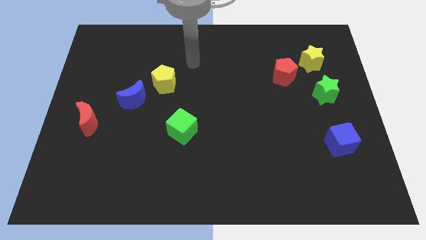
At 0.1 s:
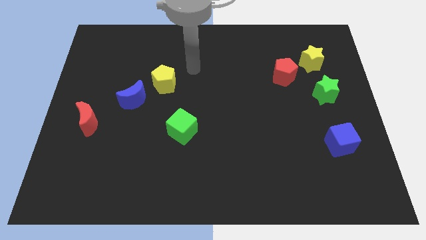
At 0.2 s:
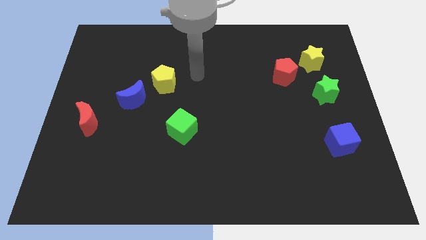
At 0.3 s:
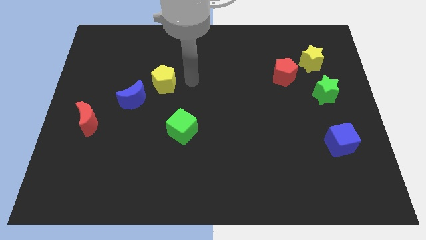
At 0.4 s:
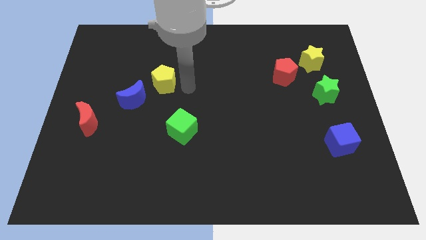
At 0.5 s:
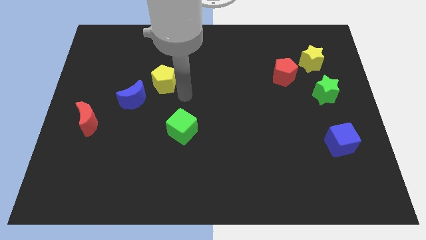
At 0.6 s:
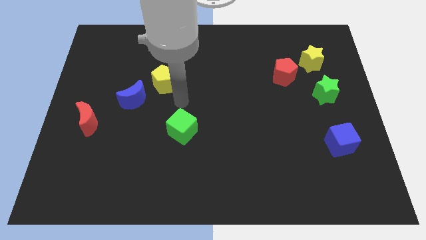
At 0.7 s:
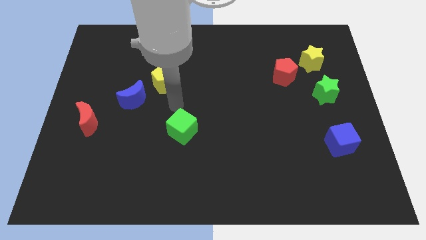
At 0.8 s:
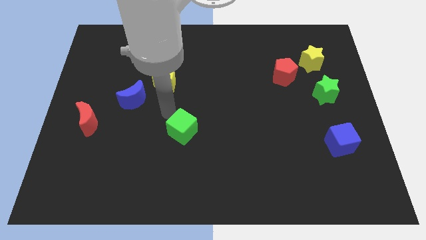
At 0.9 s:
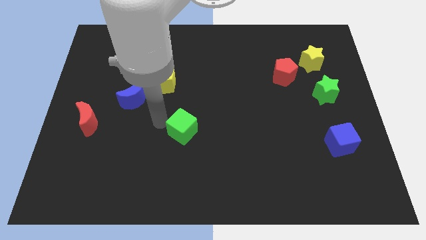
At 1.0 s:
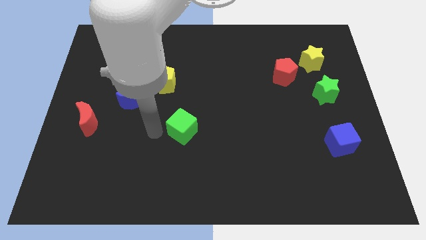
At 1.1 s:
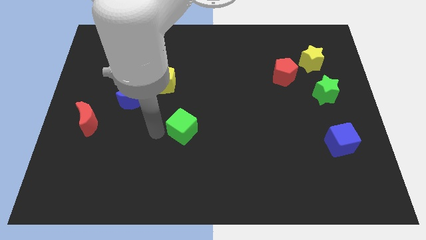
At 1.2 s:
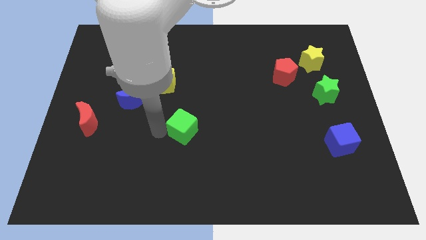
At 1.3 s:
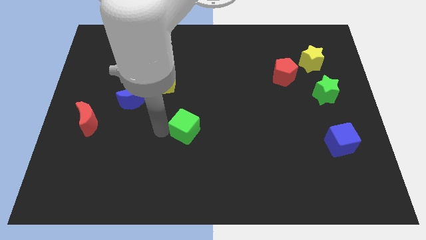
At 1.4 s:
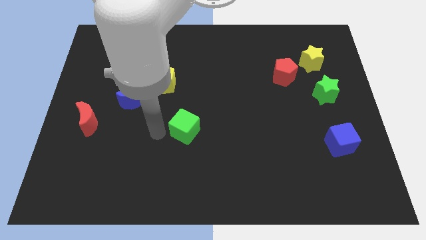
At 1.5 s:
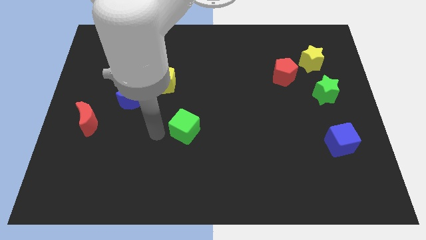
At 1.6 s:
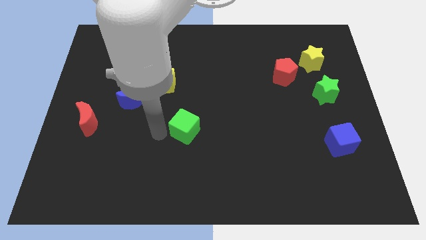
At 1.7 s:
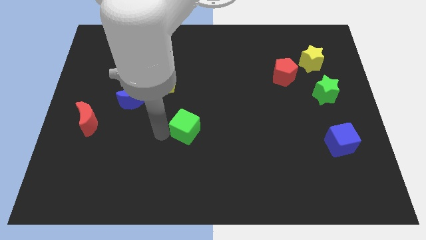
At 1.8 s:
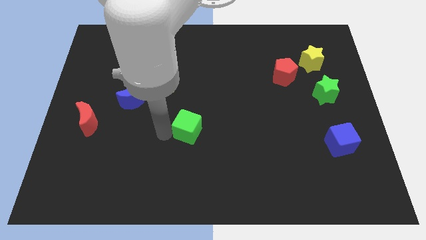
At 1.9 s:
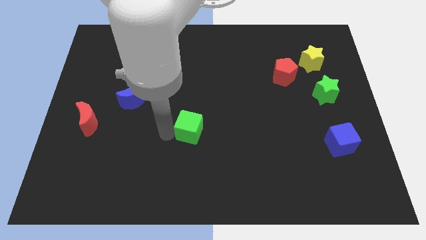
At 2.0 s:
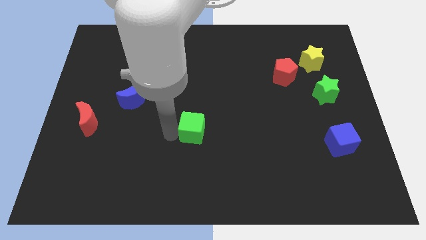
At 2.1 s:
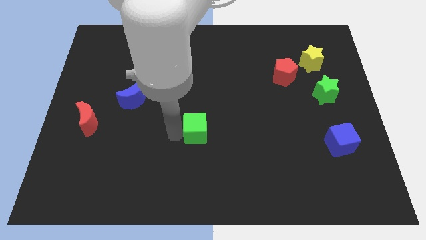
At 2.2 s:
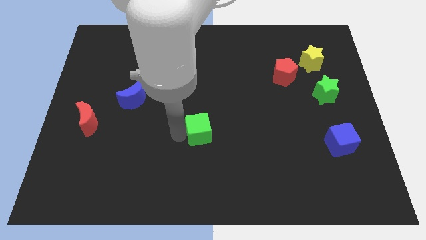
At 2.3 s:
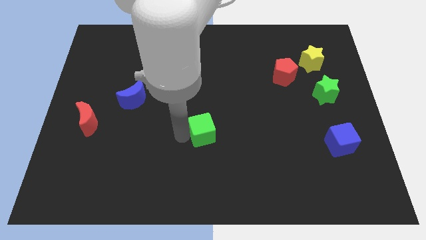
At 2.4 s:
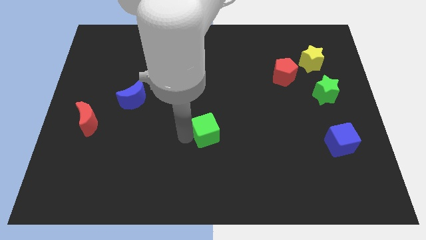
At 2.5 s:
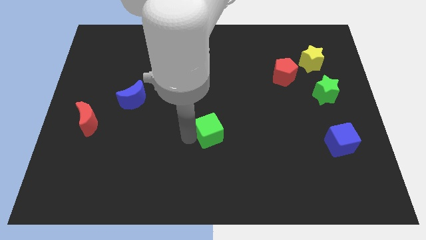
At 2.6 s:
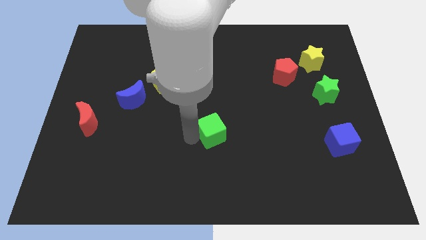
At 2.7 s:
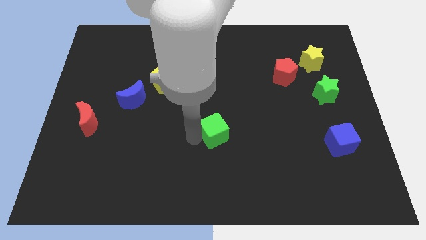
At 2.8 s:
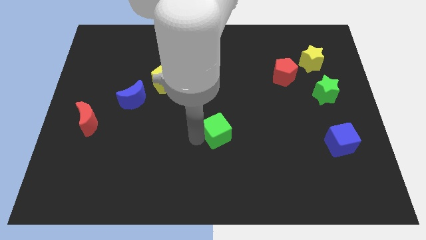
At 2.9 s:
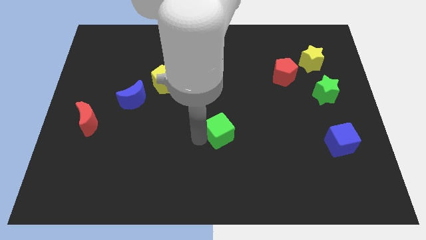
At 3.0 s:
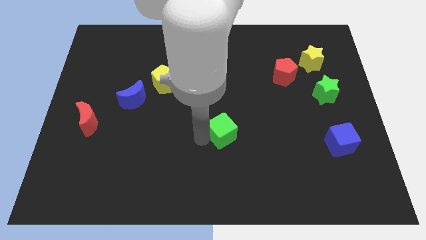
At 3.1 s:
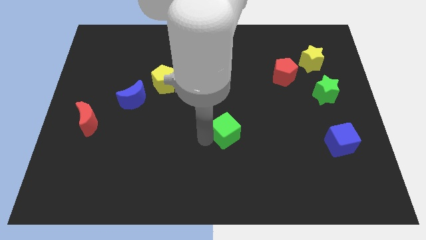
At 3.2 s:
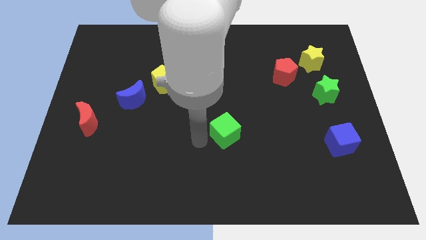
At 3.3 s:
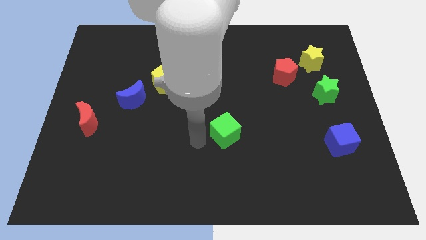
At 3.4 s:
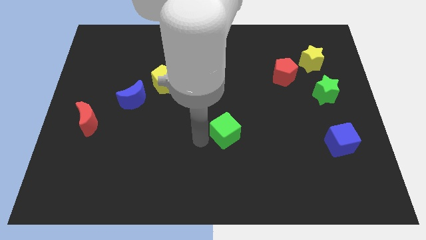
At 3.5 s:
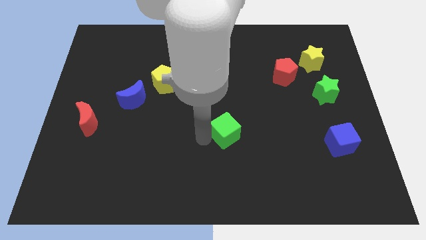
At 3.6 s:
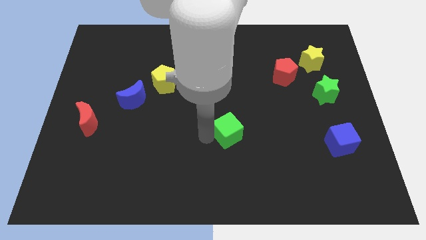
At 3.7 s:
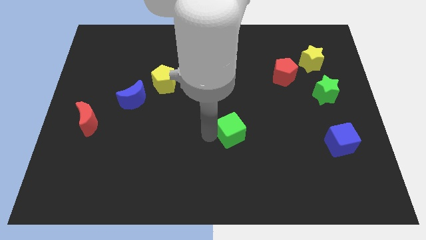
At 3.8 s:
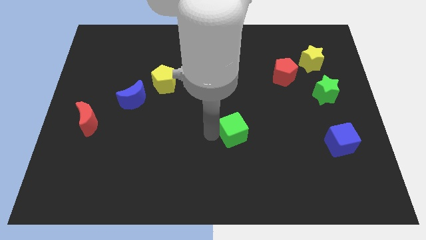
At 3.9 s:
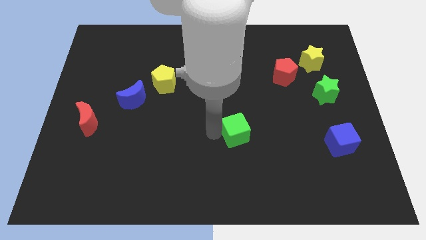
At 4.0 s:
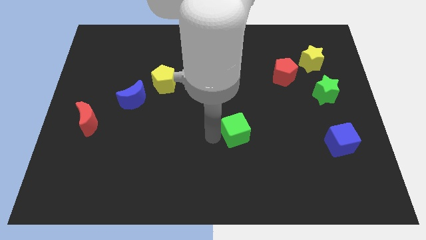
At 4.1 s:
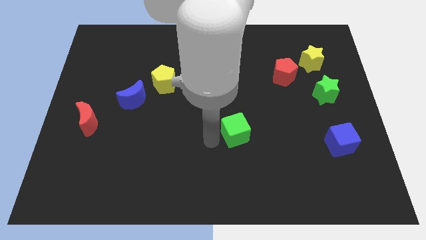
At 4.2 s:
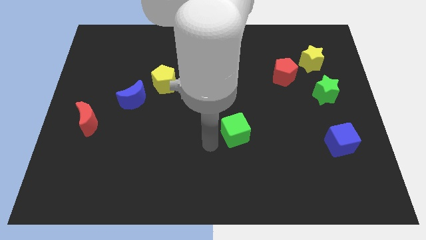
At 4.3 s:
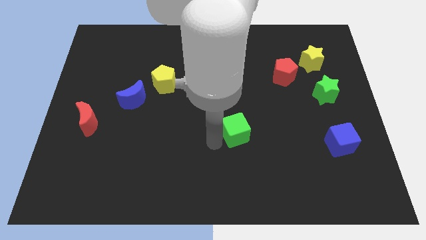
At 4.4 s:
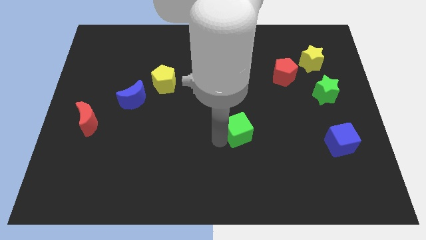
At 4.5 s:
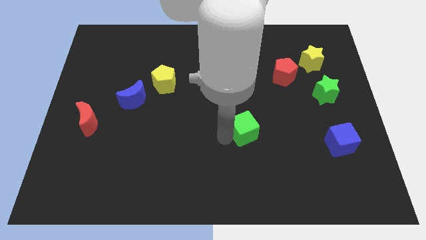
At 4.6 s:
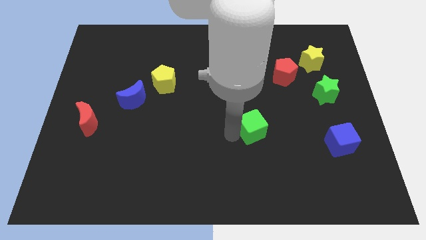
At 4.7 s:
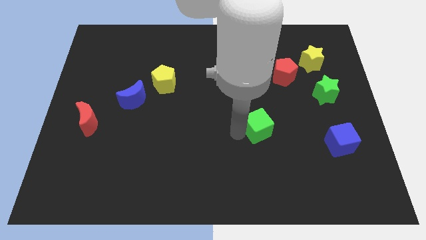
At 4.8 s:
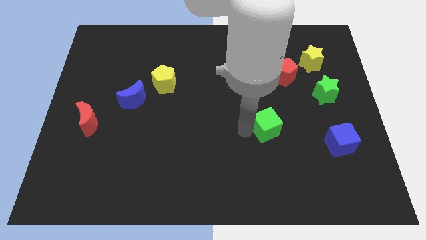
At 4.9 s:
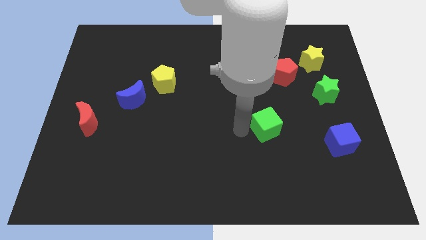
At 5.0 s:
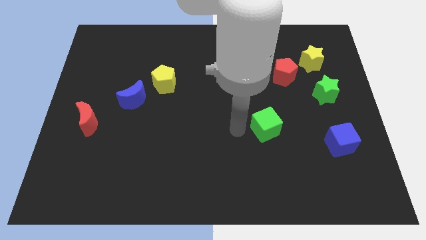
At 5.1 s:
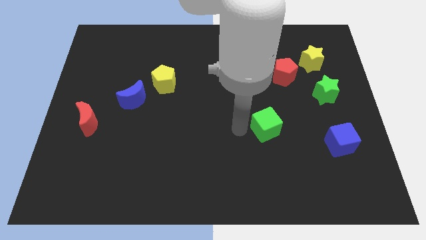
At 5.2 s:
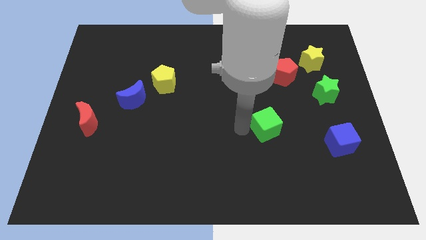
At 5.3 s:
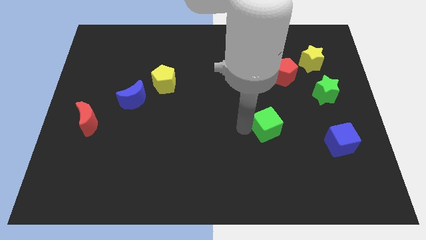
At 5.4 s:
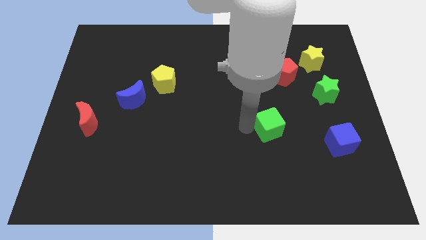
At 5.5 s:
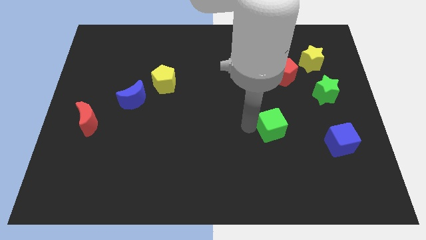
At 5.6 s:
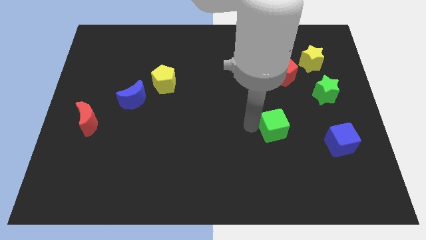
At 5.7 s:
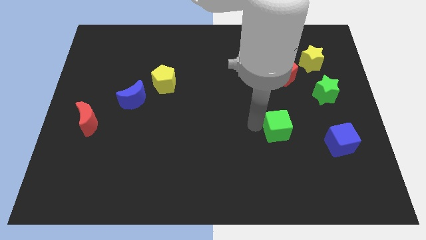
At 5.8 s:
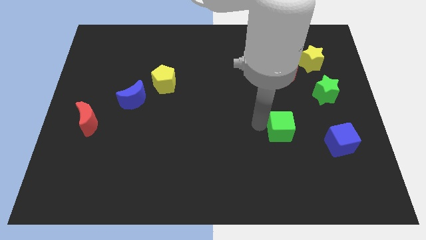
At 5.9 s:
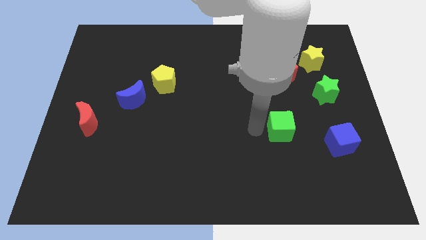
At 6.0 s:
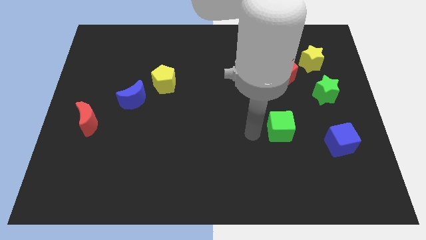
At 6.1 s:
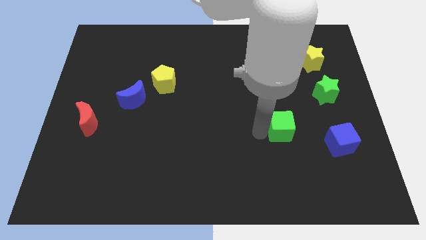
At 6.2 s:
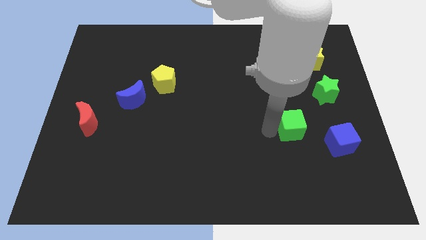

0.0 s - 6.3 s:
push the green cube to the top left side of the blue cube

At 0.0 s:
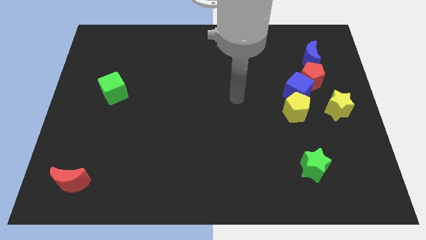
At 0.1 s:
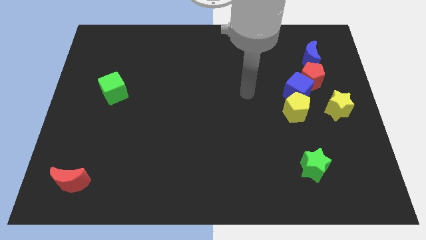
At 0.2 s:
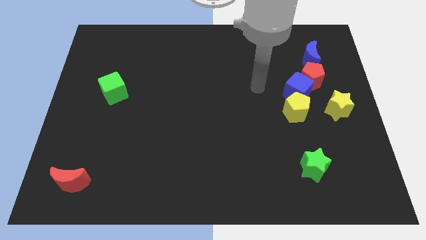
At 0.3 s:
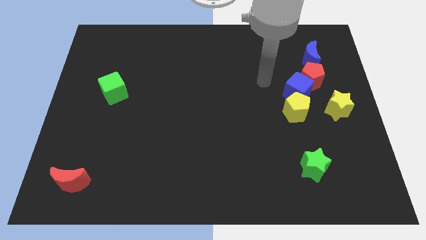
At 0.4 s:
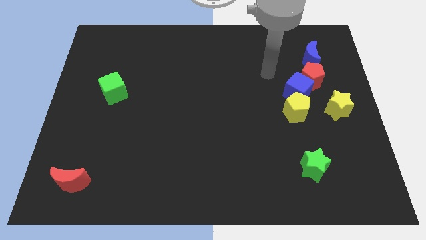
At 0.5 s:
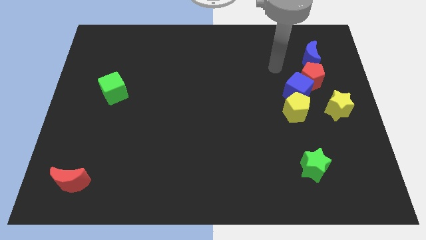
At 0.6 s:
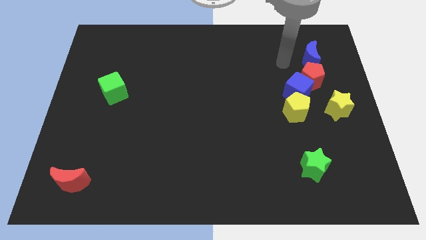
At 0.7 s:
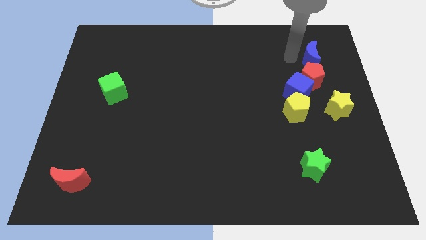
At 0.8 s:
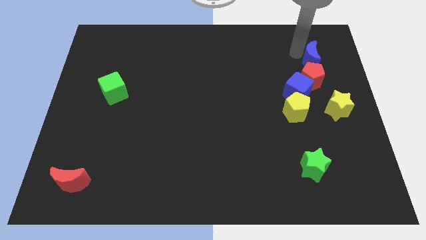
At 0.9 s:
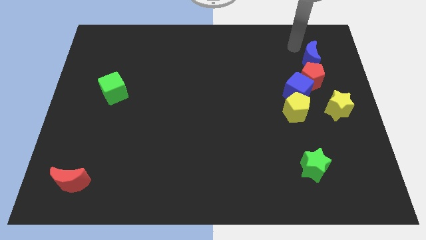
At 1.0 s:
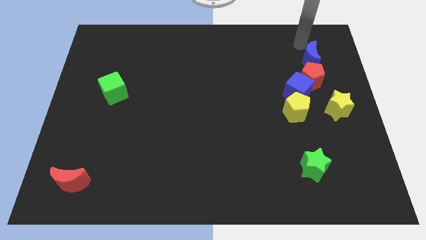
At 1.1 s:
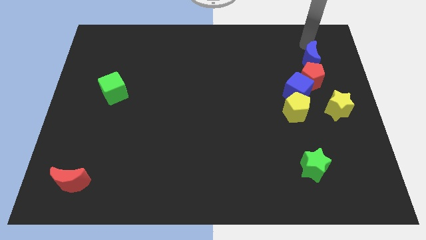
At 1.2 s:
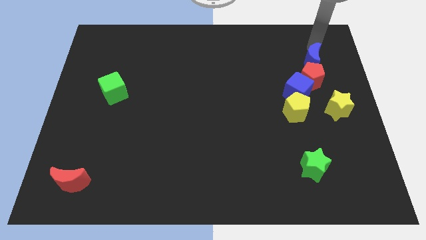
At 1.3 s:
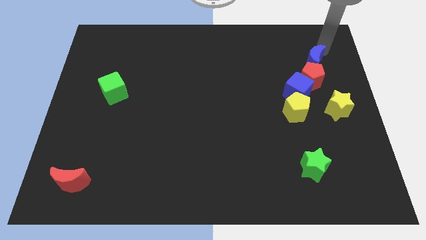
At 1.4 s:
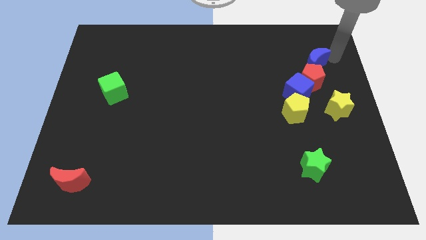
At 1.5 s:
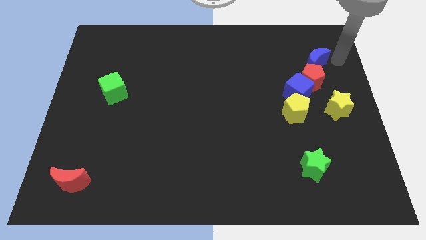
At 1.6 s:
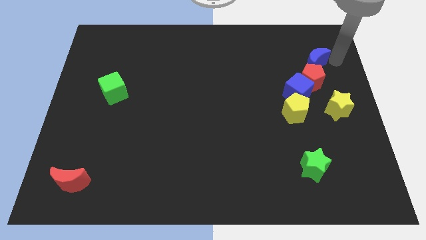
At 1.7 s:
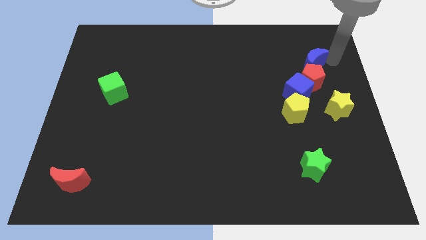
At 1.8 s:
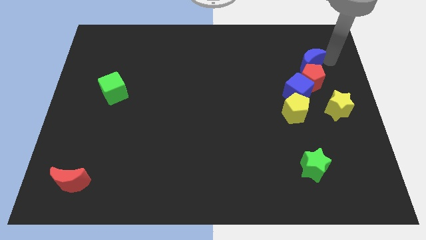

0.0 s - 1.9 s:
push the blue moon to the top left side of the red pentagon
